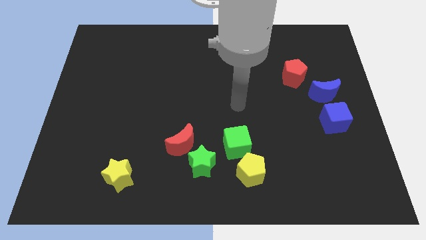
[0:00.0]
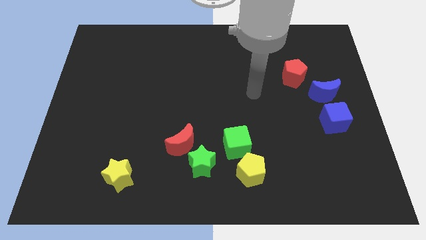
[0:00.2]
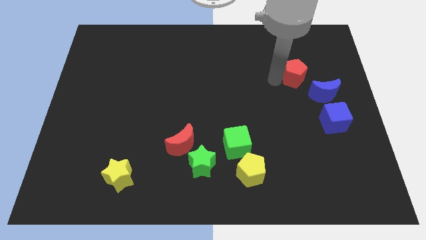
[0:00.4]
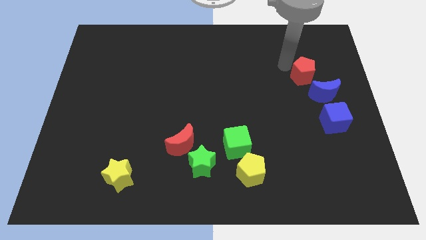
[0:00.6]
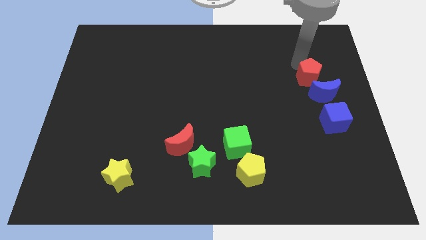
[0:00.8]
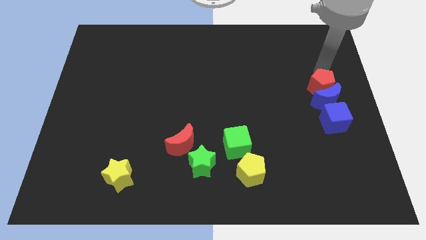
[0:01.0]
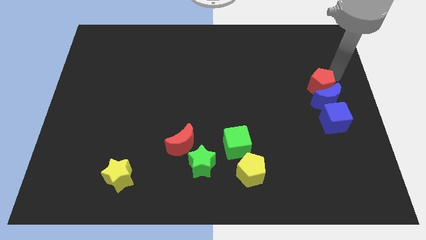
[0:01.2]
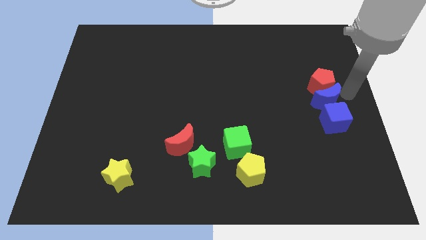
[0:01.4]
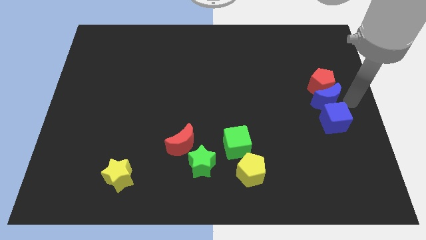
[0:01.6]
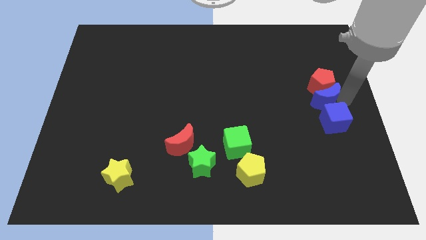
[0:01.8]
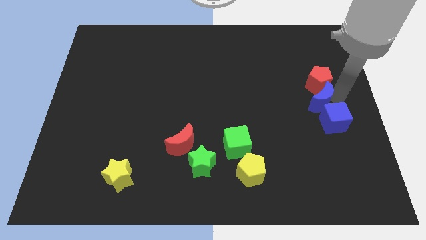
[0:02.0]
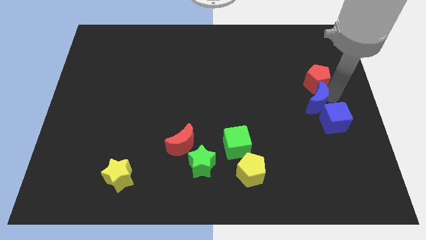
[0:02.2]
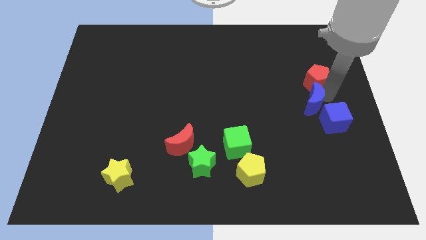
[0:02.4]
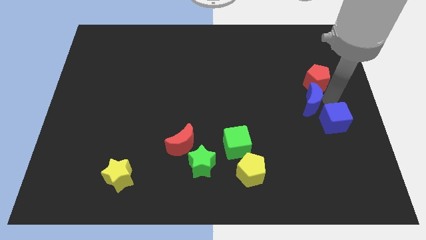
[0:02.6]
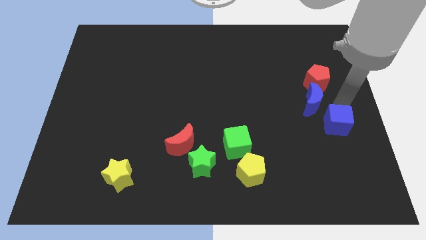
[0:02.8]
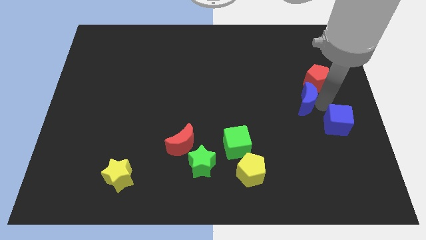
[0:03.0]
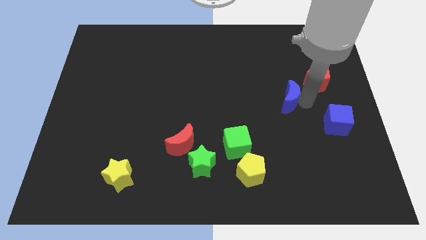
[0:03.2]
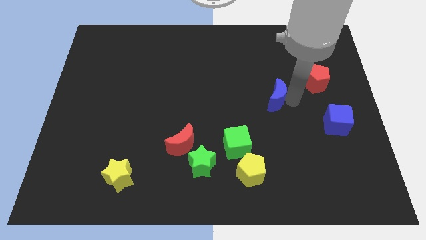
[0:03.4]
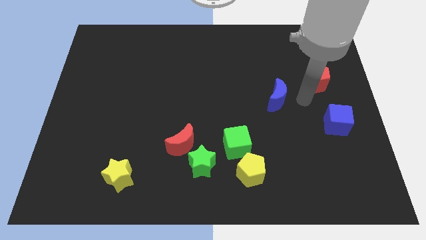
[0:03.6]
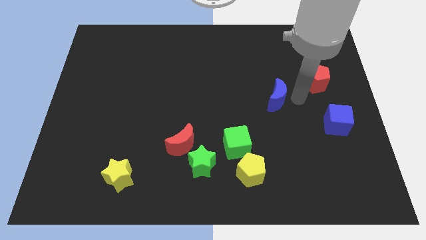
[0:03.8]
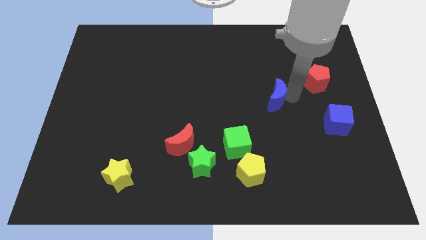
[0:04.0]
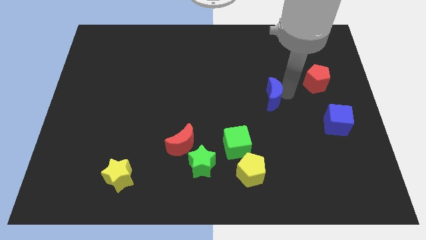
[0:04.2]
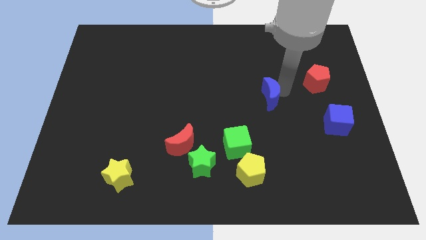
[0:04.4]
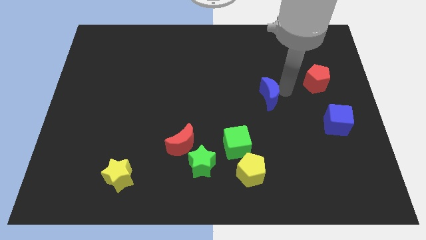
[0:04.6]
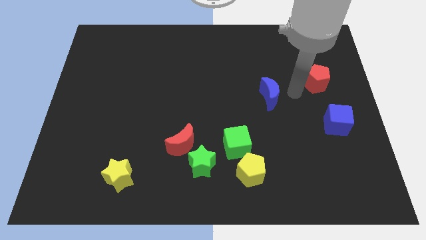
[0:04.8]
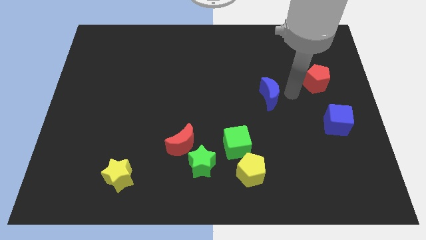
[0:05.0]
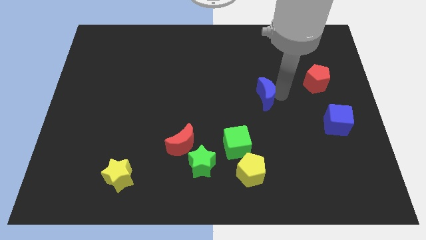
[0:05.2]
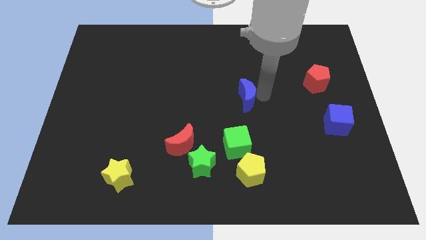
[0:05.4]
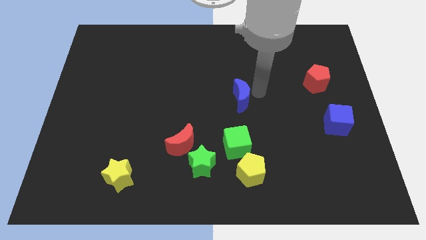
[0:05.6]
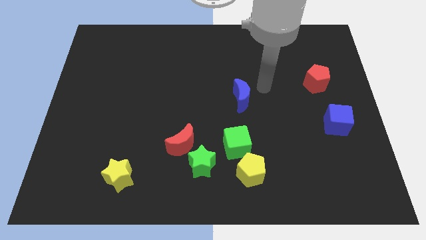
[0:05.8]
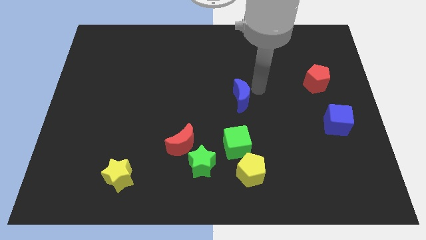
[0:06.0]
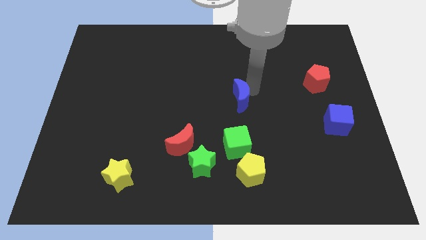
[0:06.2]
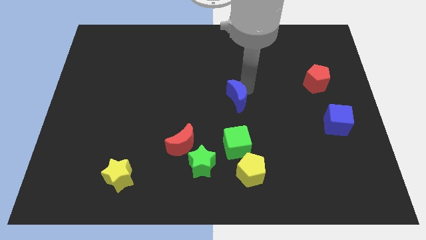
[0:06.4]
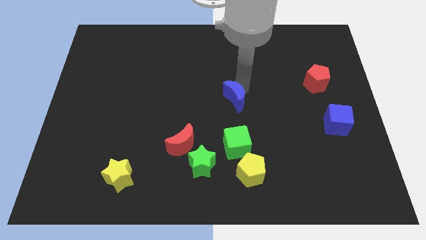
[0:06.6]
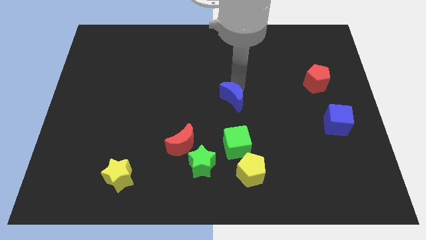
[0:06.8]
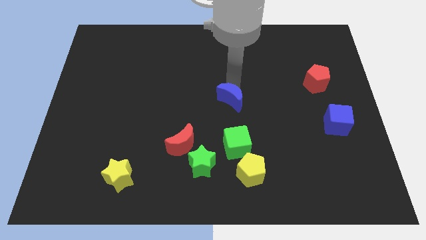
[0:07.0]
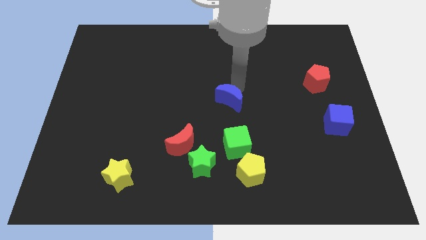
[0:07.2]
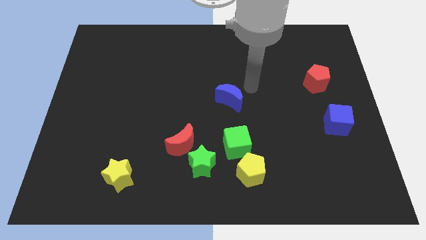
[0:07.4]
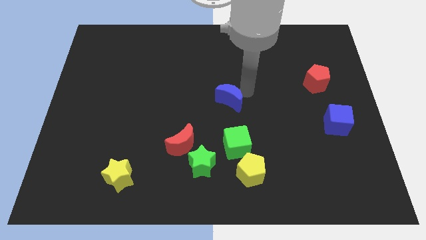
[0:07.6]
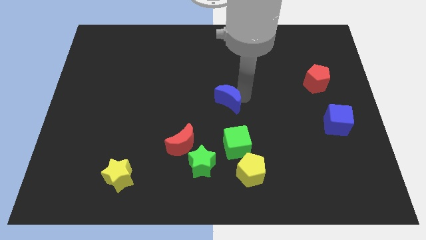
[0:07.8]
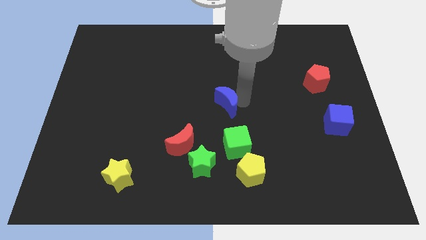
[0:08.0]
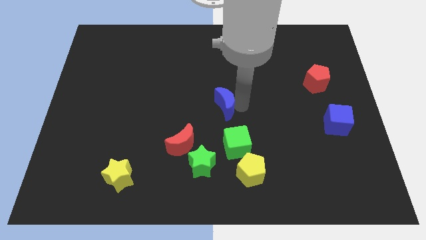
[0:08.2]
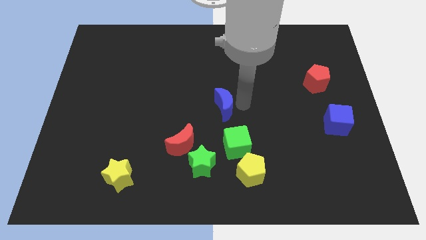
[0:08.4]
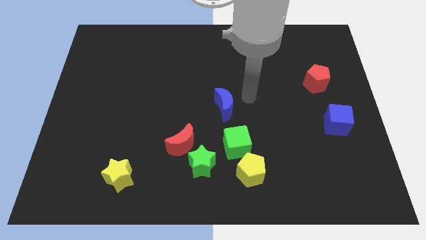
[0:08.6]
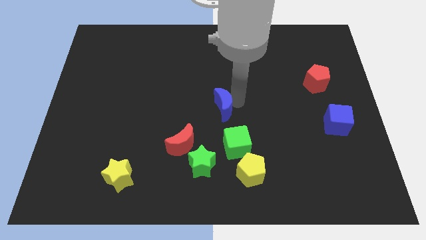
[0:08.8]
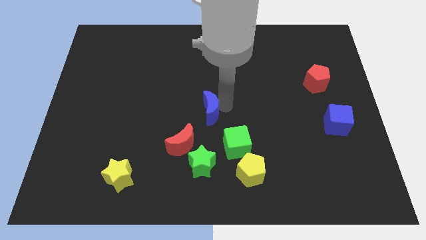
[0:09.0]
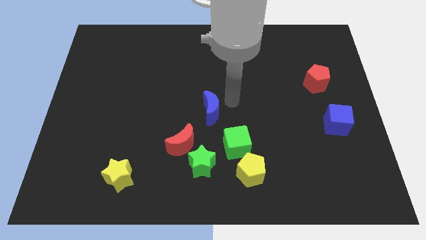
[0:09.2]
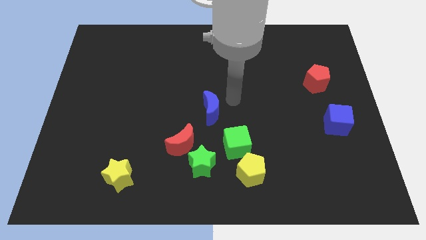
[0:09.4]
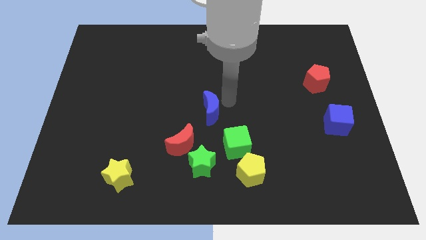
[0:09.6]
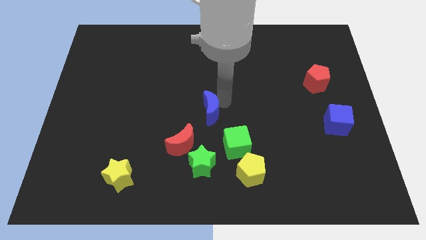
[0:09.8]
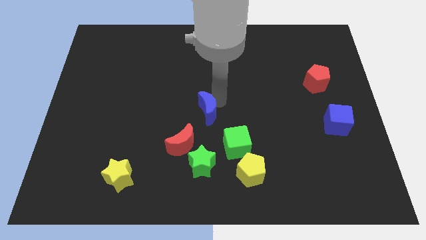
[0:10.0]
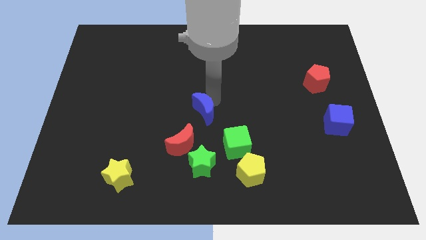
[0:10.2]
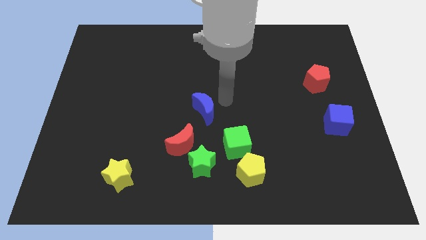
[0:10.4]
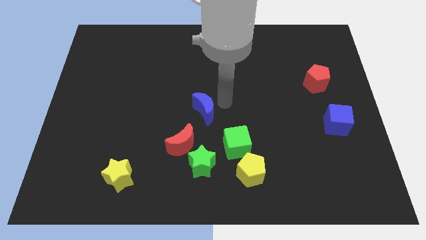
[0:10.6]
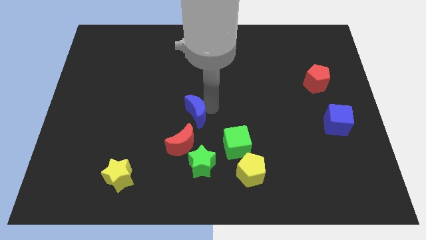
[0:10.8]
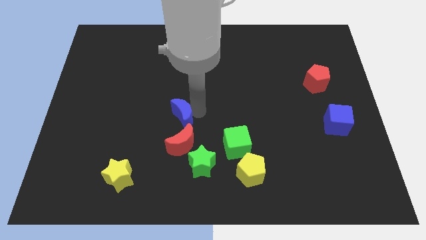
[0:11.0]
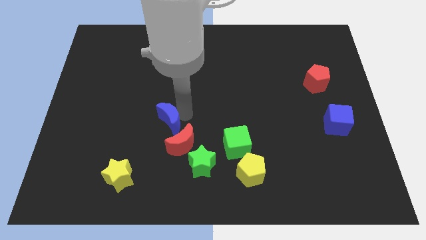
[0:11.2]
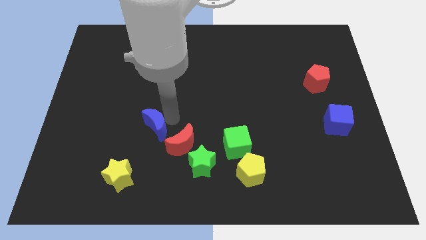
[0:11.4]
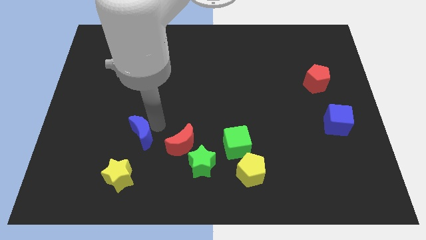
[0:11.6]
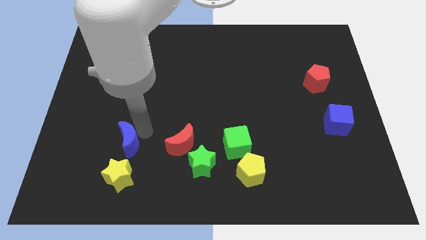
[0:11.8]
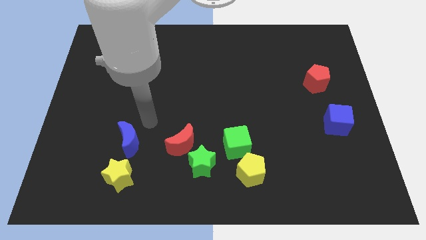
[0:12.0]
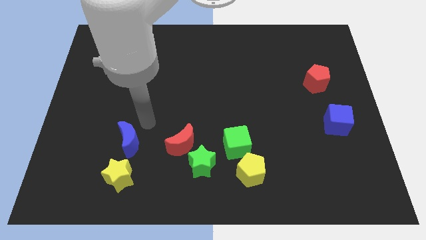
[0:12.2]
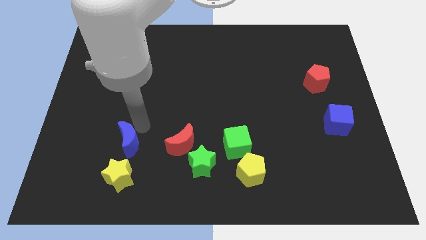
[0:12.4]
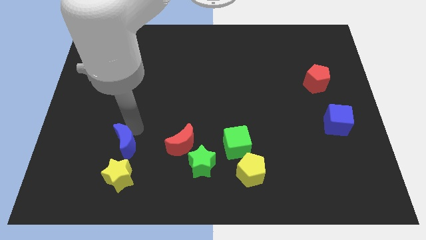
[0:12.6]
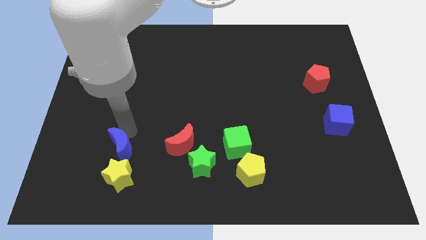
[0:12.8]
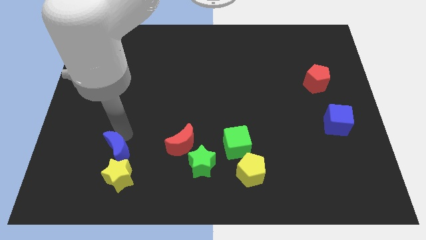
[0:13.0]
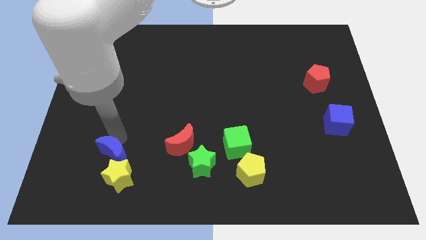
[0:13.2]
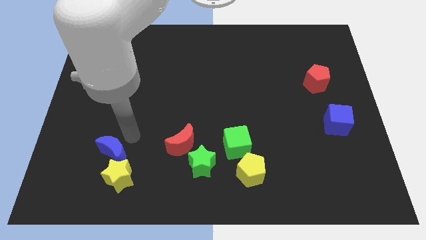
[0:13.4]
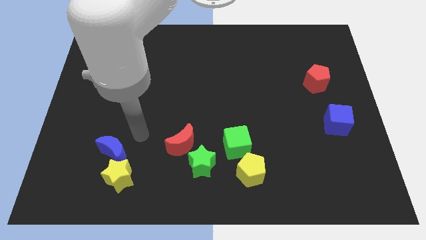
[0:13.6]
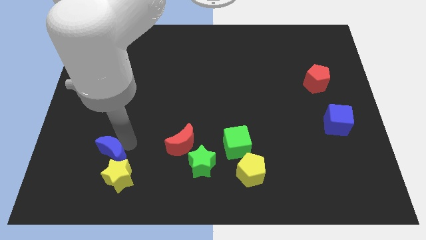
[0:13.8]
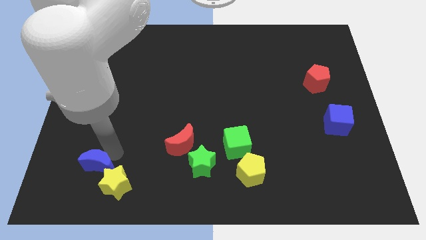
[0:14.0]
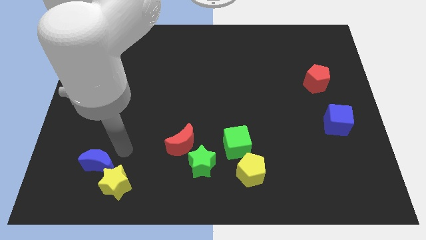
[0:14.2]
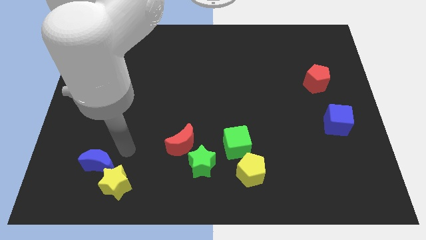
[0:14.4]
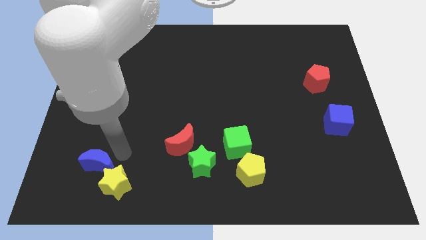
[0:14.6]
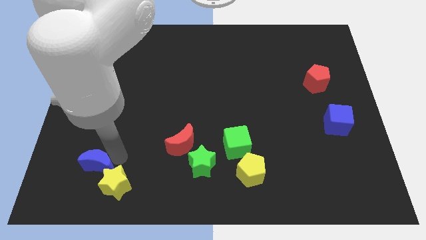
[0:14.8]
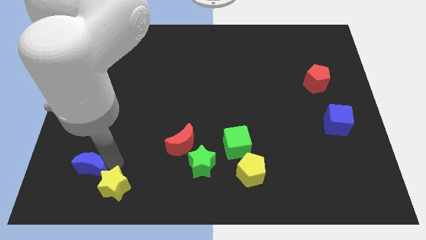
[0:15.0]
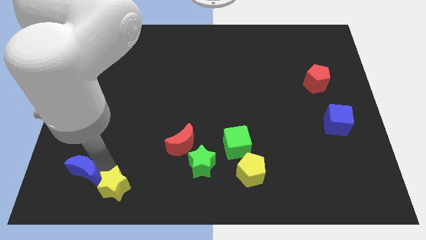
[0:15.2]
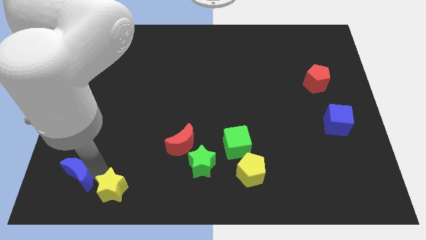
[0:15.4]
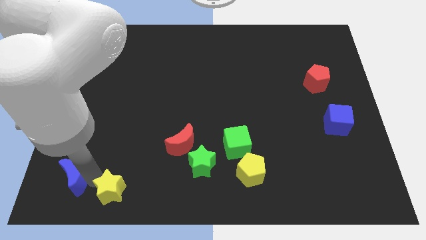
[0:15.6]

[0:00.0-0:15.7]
put the blue moon to the bottom left
